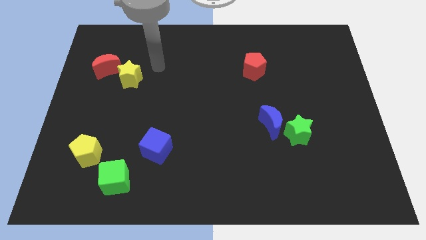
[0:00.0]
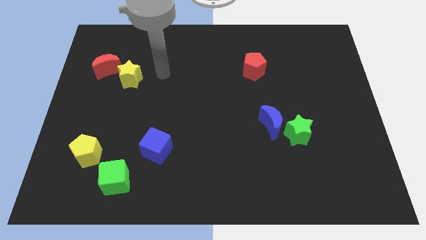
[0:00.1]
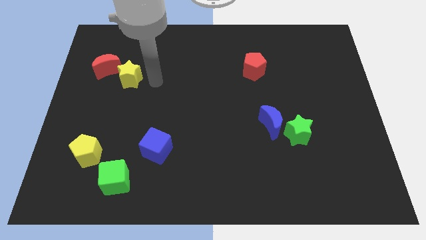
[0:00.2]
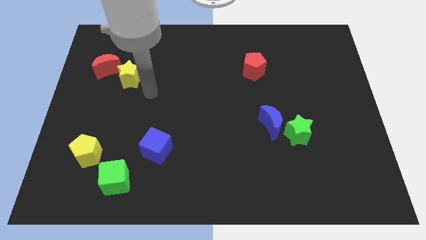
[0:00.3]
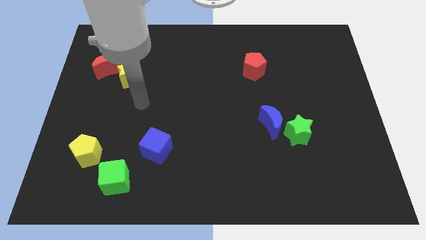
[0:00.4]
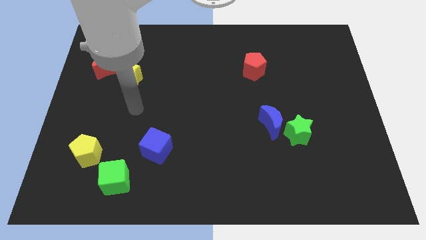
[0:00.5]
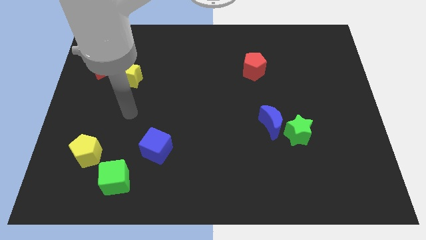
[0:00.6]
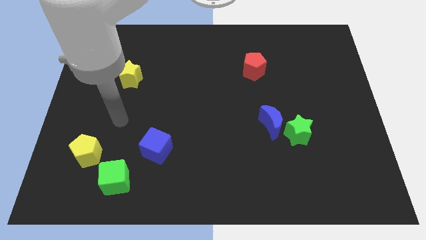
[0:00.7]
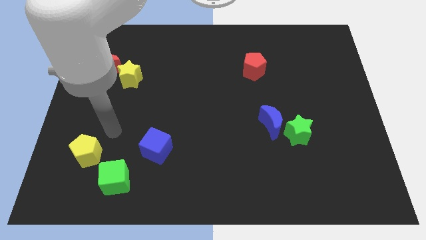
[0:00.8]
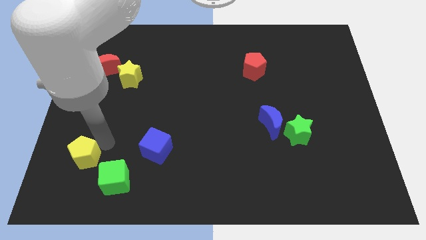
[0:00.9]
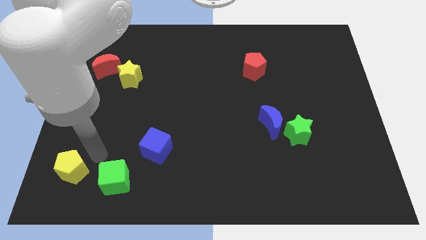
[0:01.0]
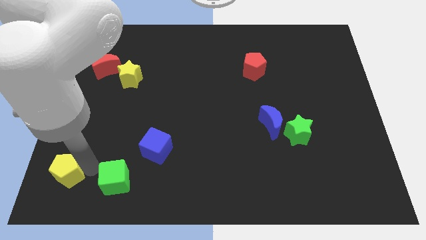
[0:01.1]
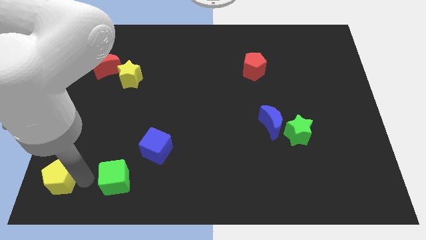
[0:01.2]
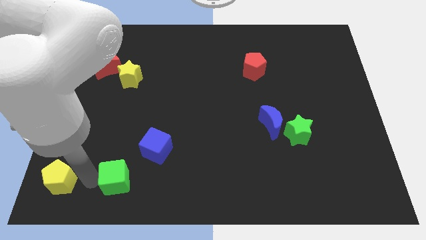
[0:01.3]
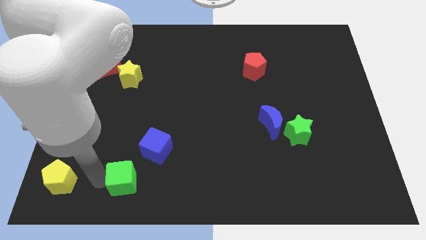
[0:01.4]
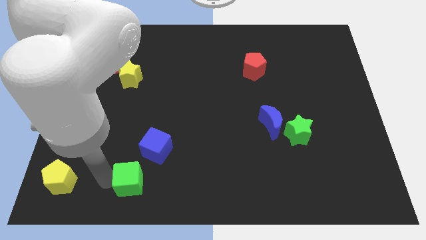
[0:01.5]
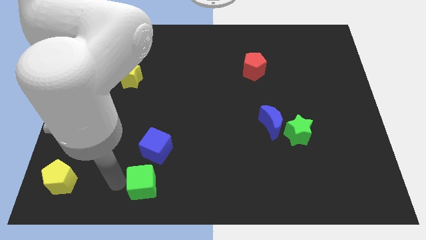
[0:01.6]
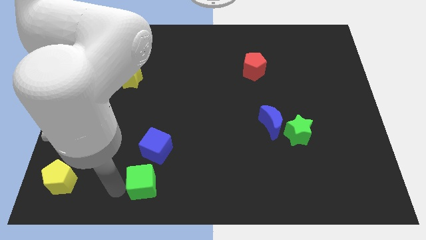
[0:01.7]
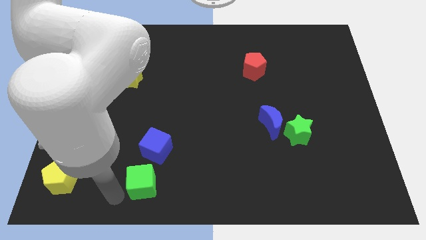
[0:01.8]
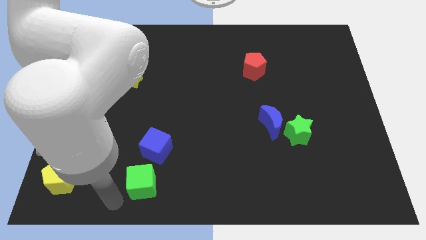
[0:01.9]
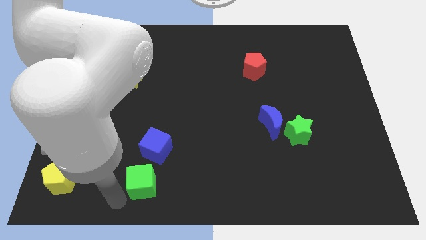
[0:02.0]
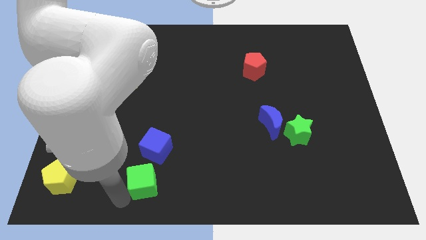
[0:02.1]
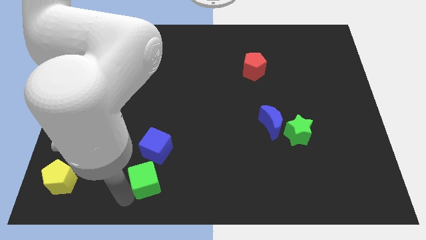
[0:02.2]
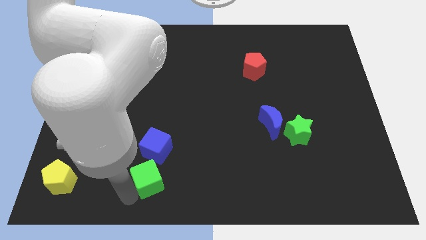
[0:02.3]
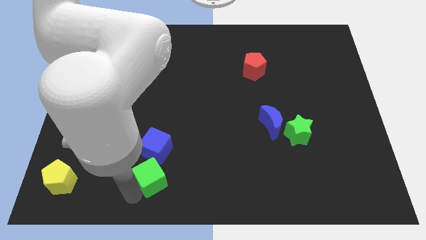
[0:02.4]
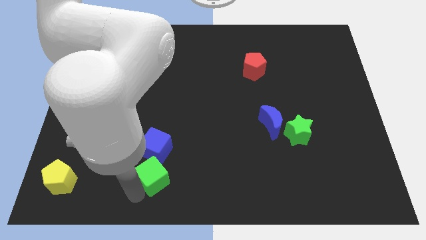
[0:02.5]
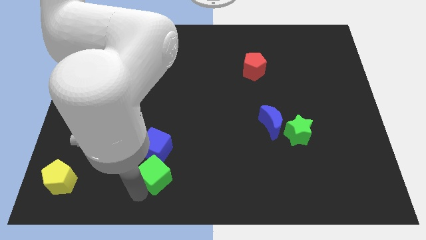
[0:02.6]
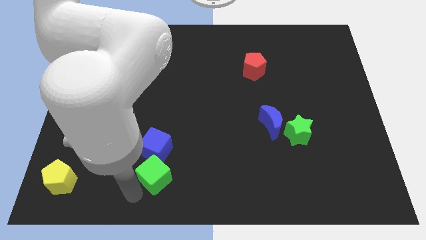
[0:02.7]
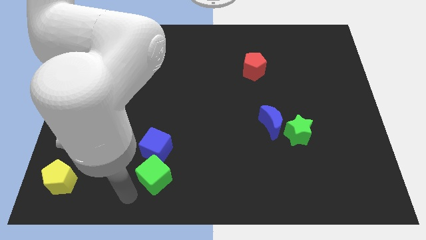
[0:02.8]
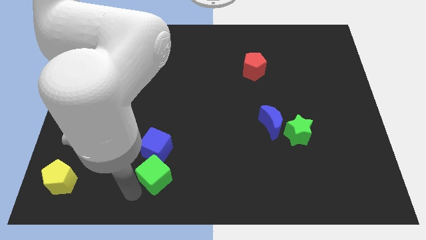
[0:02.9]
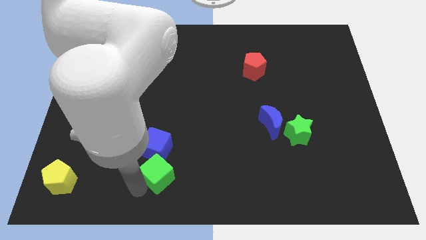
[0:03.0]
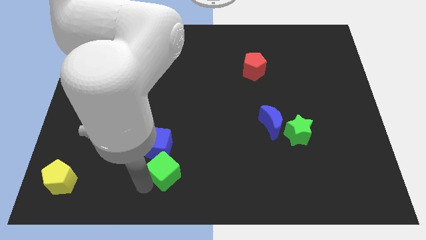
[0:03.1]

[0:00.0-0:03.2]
move the green cube a little up and to the right

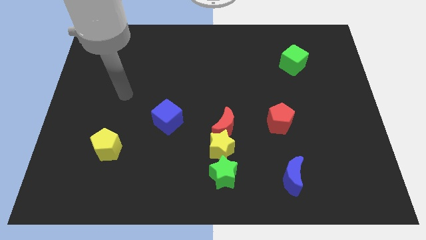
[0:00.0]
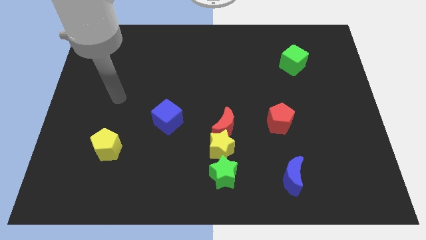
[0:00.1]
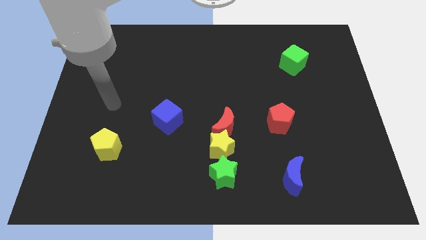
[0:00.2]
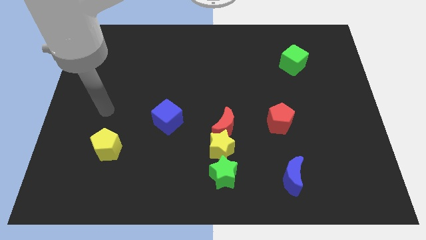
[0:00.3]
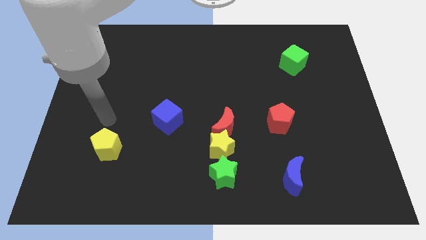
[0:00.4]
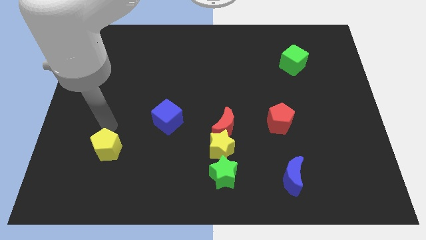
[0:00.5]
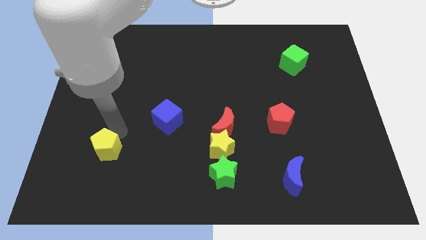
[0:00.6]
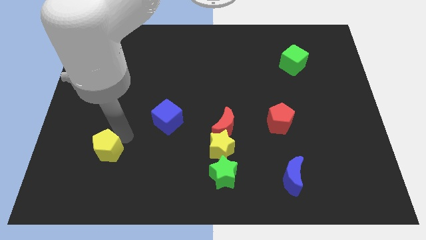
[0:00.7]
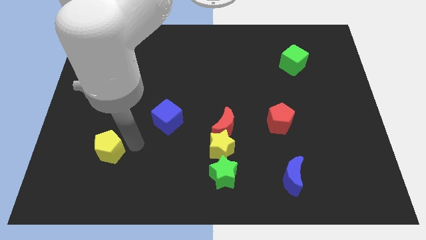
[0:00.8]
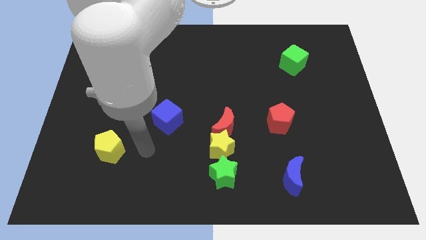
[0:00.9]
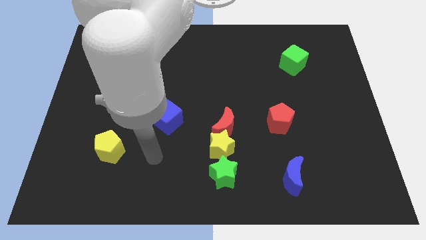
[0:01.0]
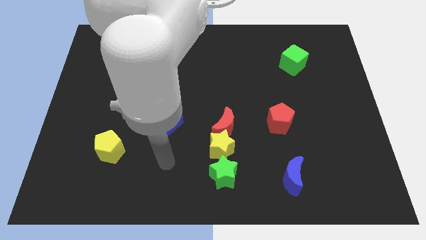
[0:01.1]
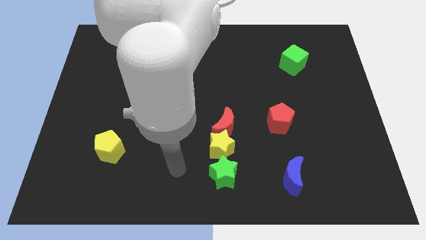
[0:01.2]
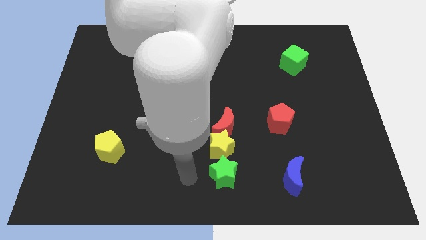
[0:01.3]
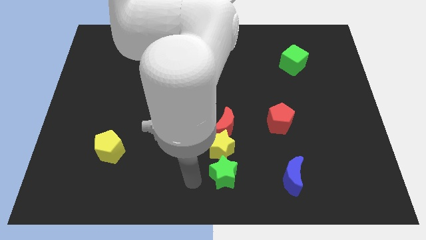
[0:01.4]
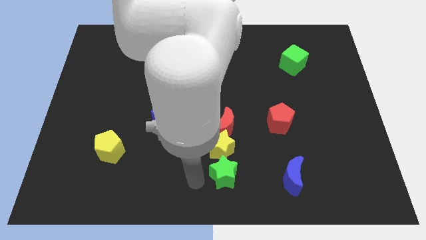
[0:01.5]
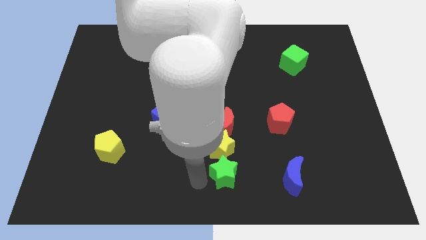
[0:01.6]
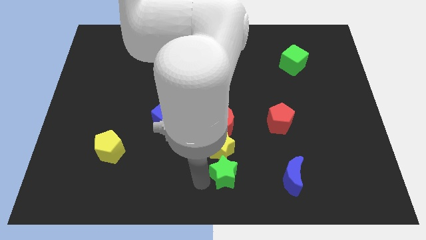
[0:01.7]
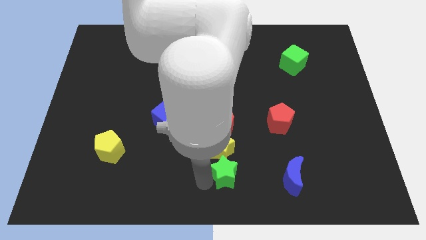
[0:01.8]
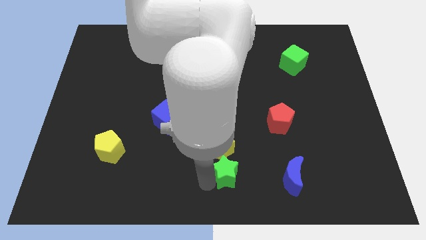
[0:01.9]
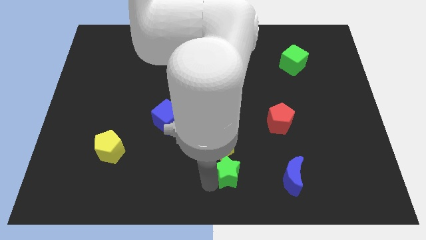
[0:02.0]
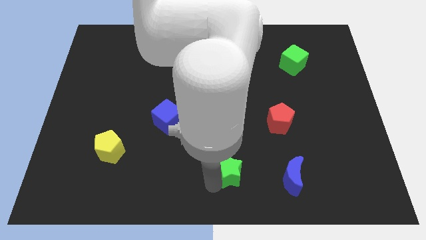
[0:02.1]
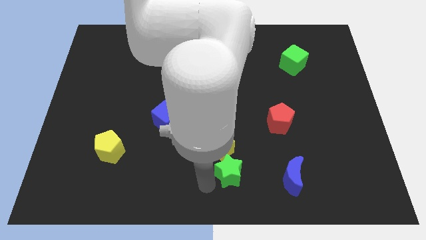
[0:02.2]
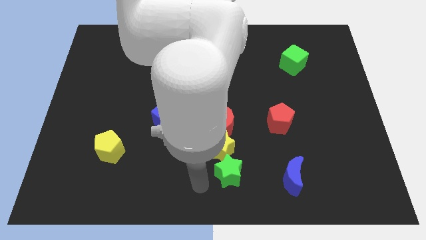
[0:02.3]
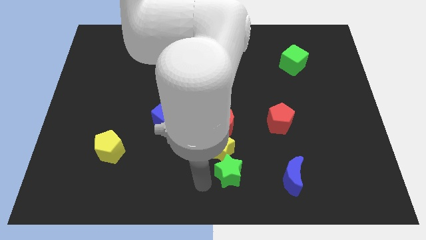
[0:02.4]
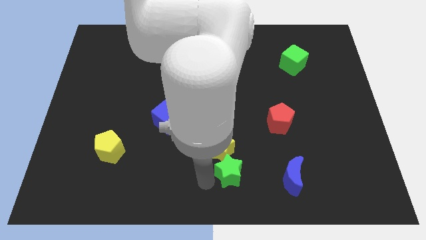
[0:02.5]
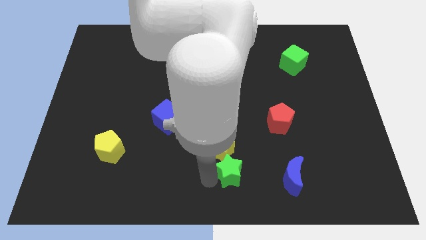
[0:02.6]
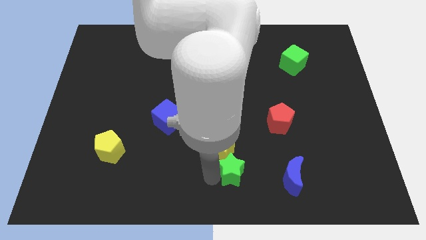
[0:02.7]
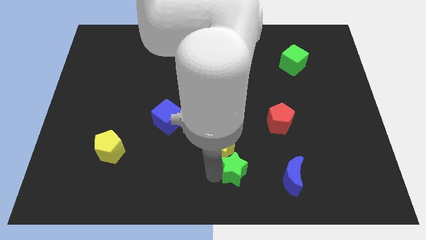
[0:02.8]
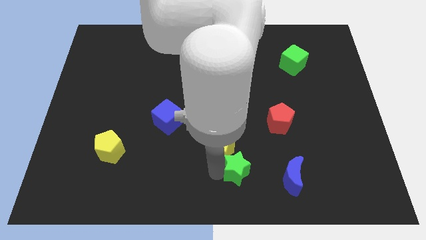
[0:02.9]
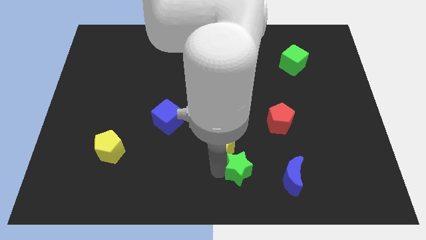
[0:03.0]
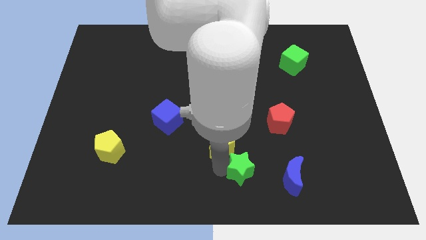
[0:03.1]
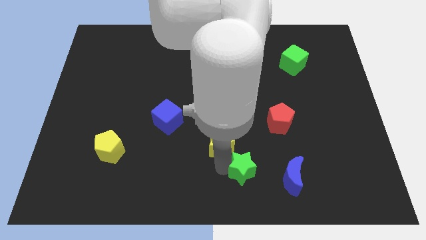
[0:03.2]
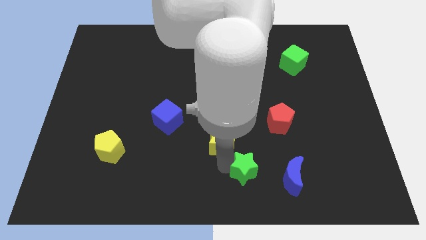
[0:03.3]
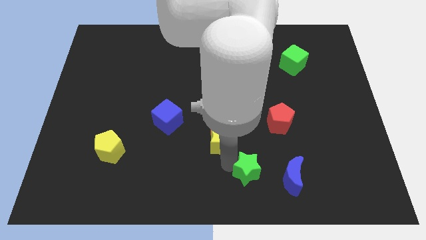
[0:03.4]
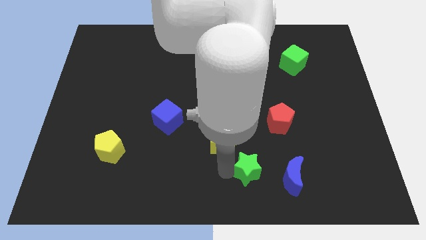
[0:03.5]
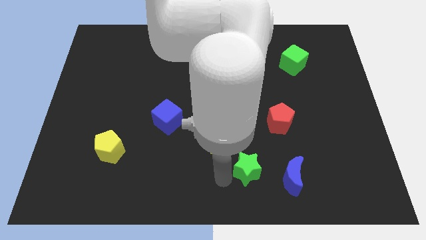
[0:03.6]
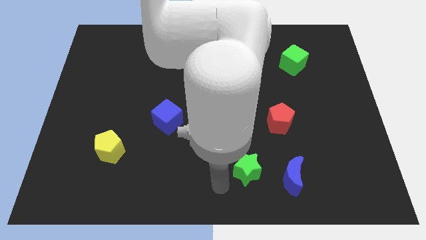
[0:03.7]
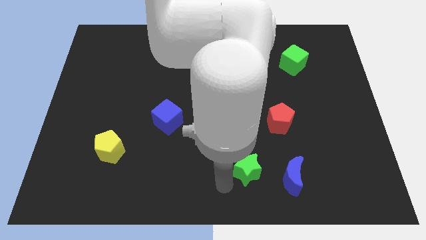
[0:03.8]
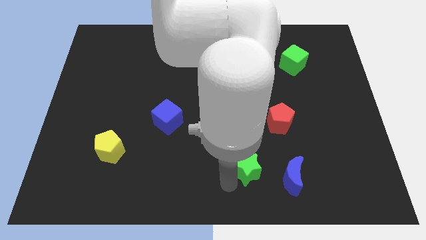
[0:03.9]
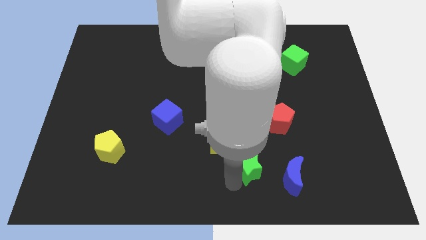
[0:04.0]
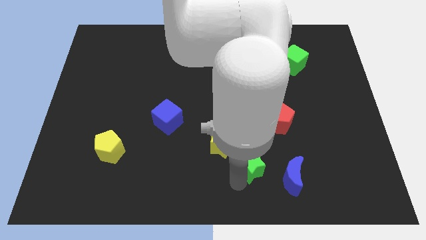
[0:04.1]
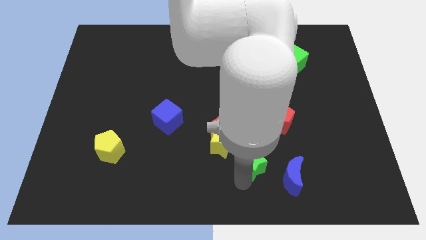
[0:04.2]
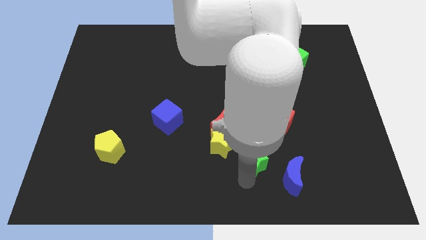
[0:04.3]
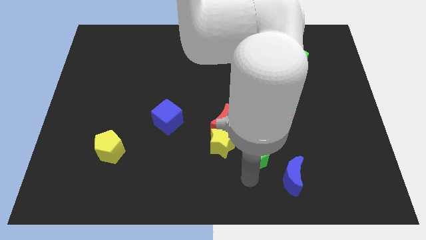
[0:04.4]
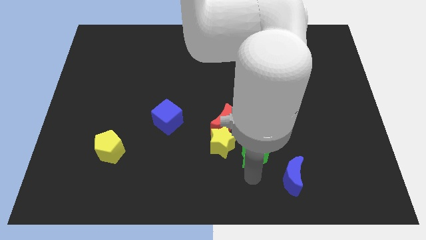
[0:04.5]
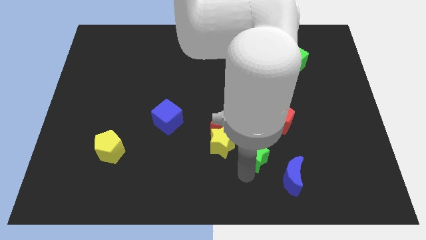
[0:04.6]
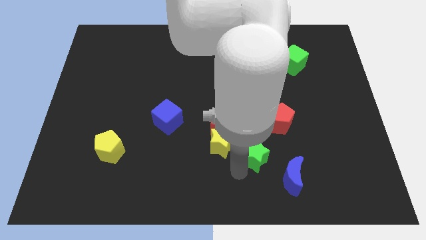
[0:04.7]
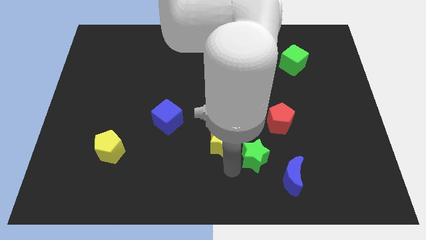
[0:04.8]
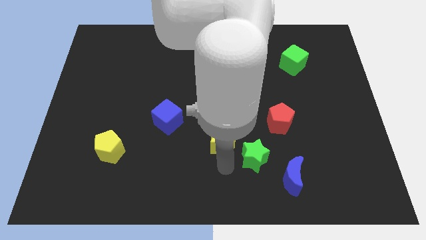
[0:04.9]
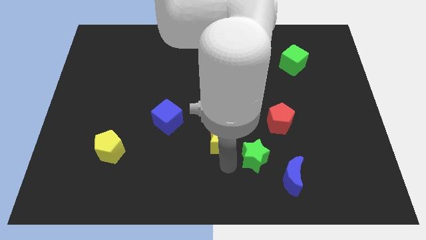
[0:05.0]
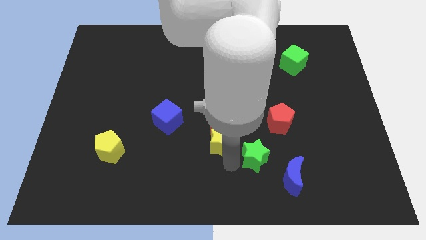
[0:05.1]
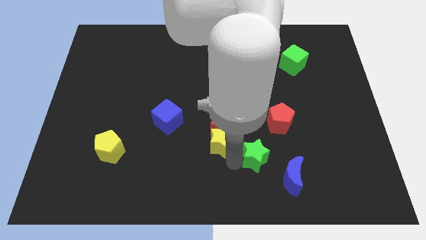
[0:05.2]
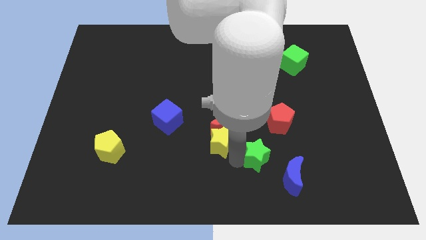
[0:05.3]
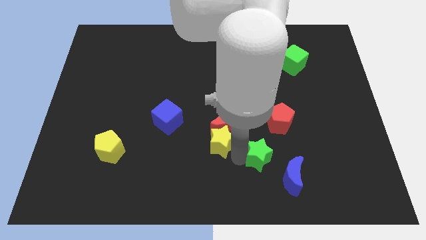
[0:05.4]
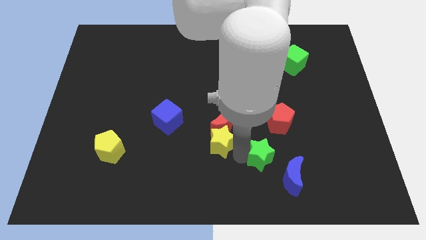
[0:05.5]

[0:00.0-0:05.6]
slide the green star somewhat right
